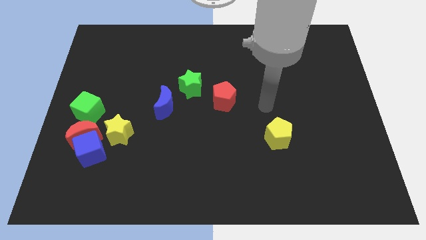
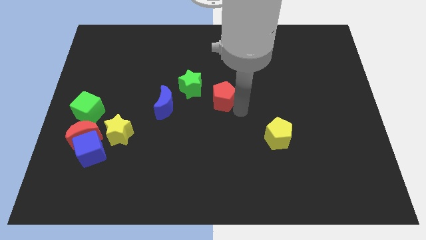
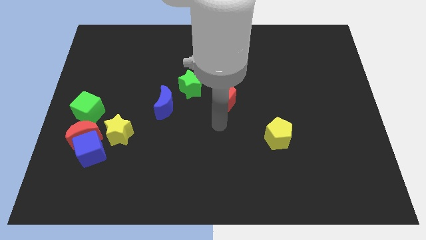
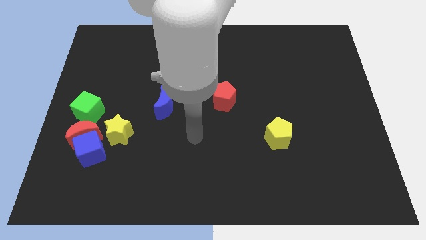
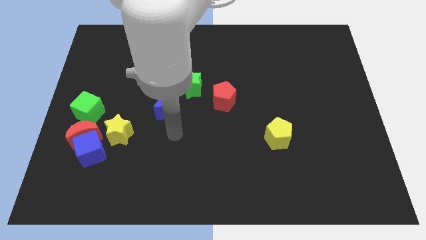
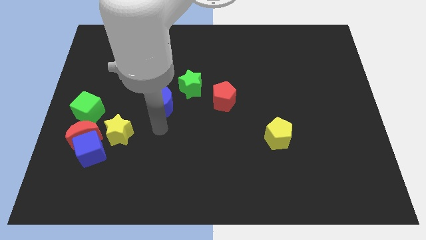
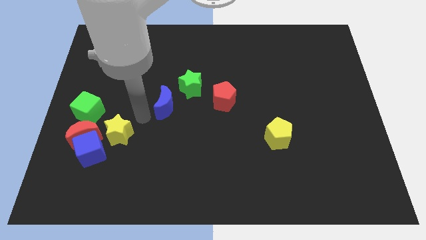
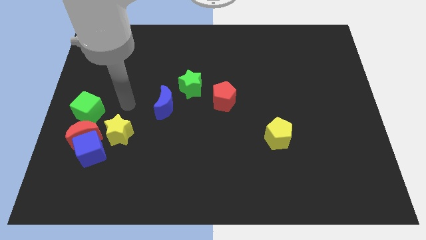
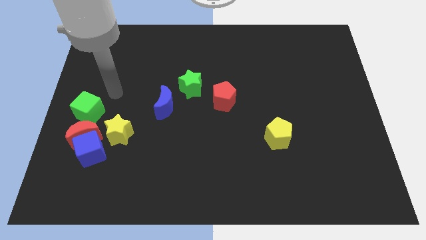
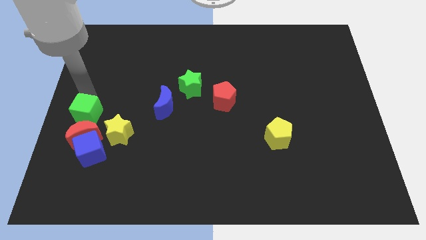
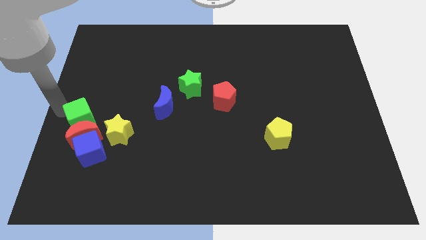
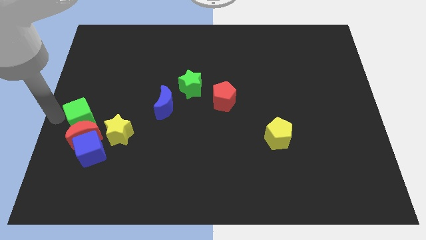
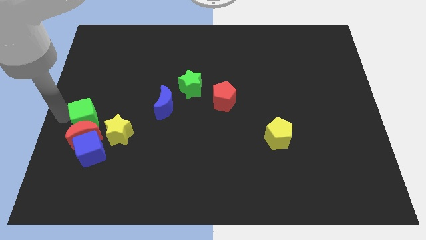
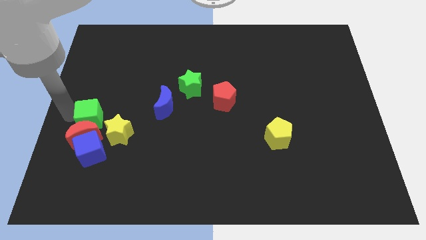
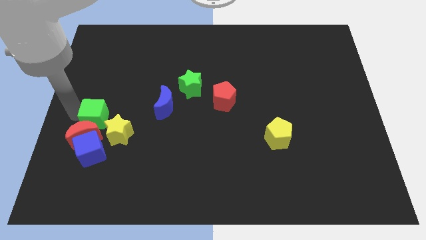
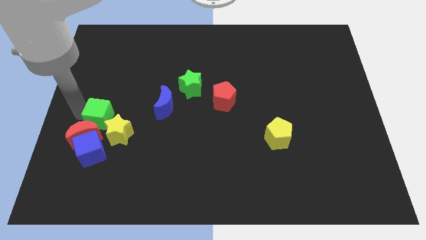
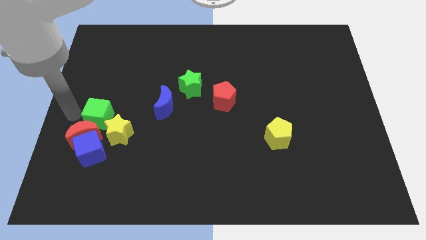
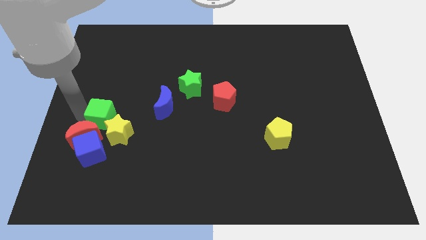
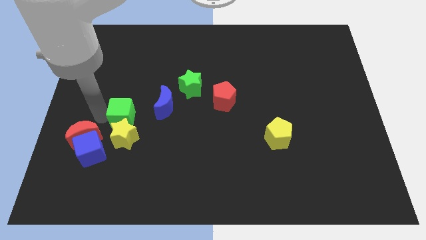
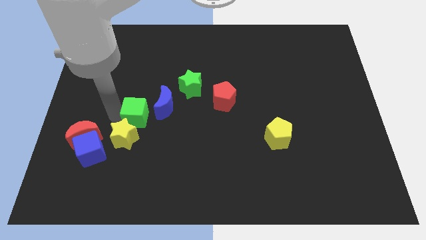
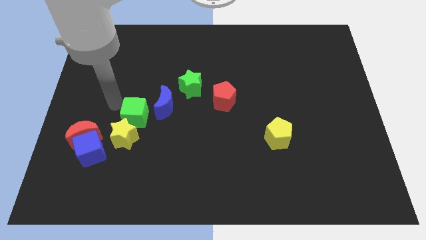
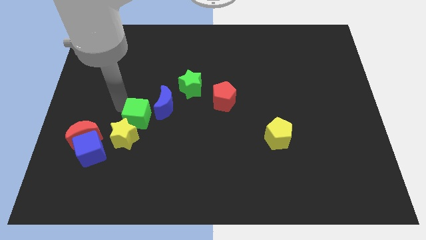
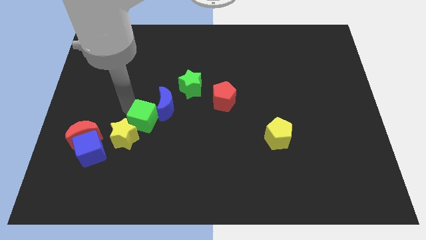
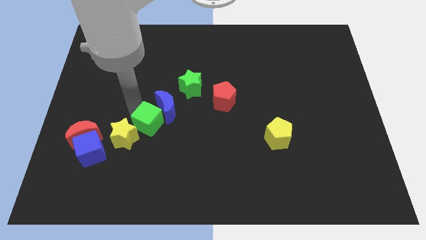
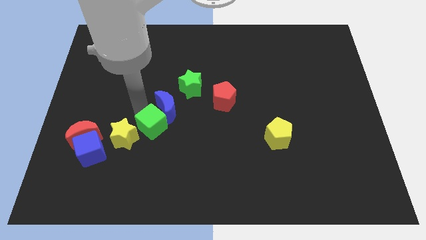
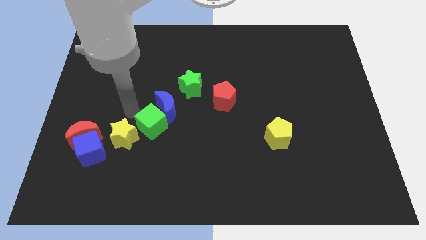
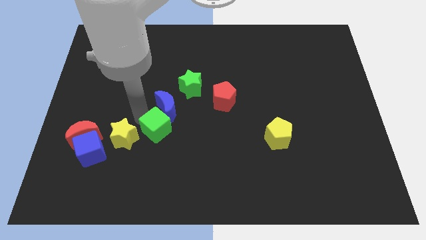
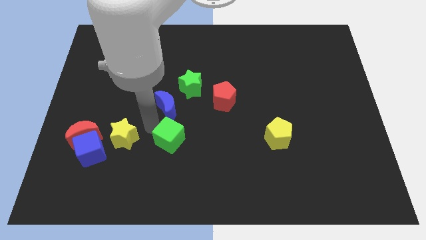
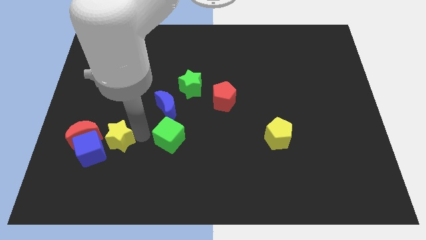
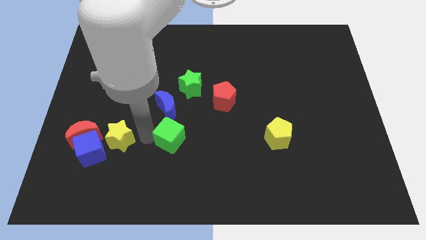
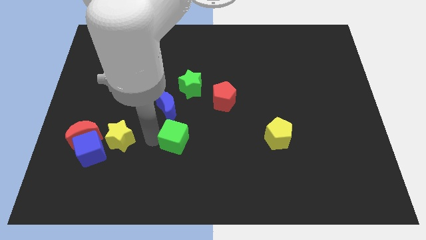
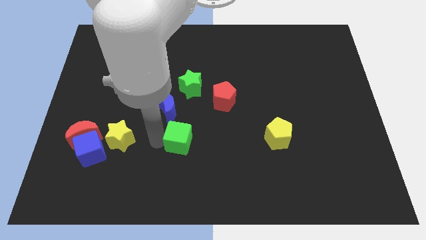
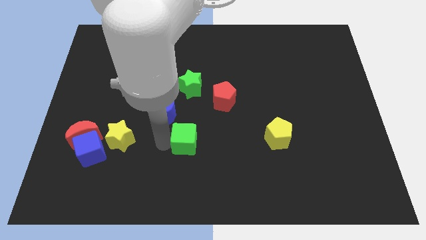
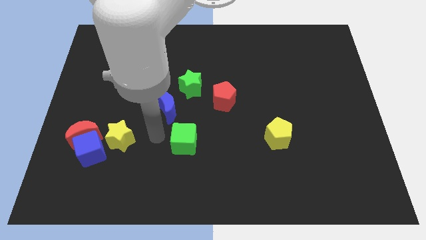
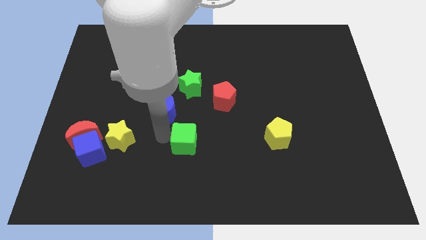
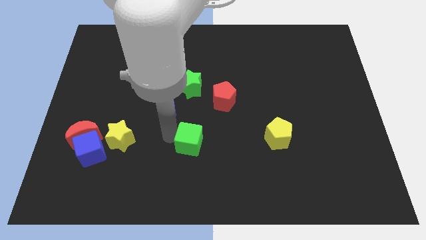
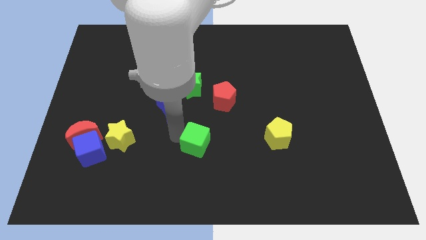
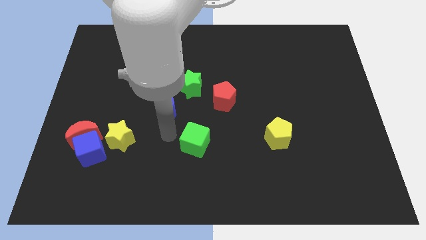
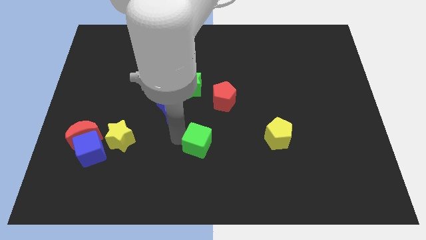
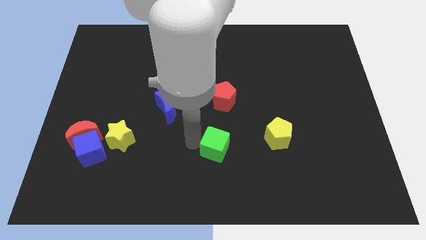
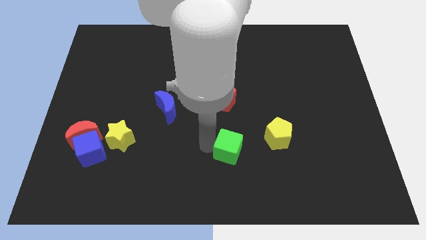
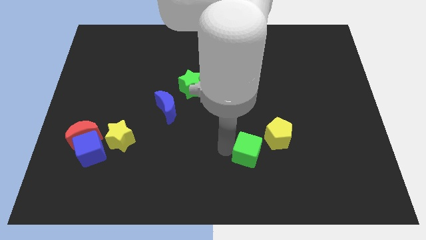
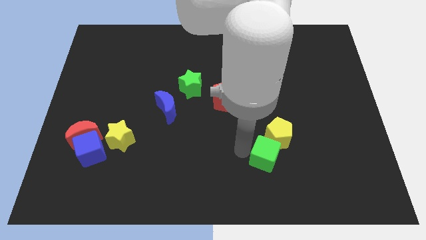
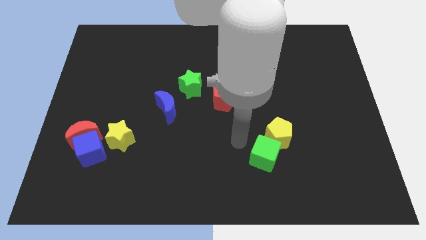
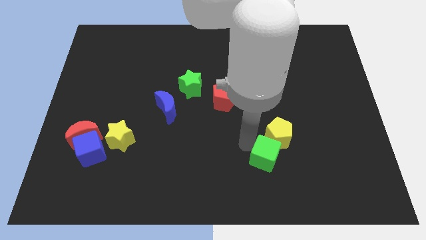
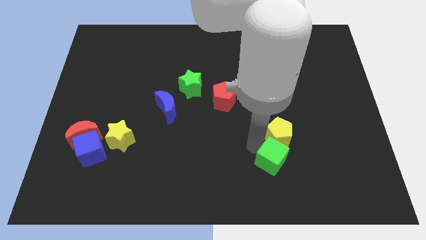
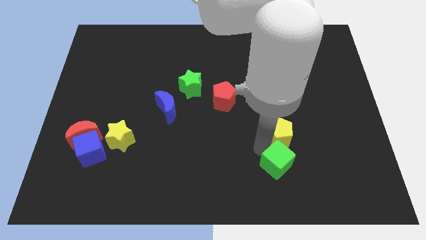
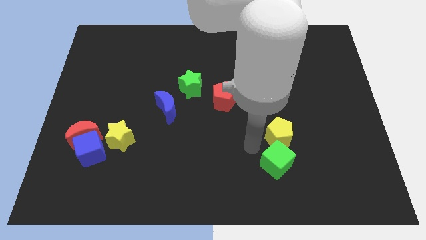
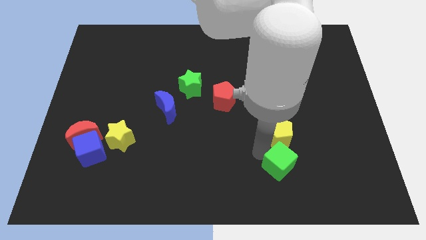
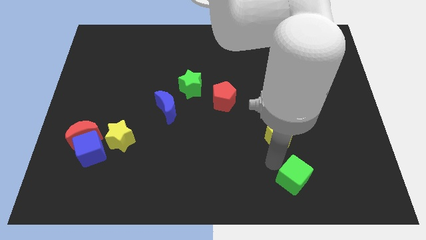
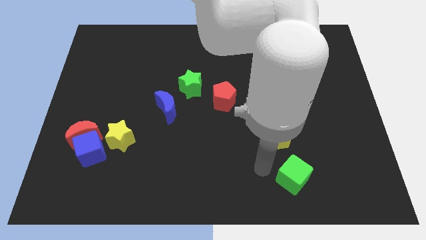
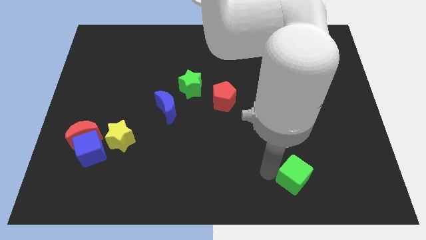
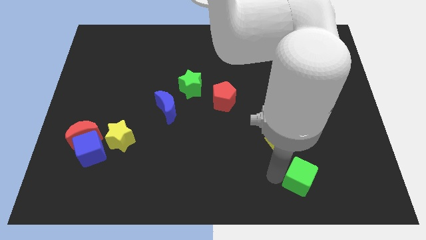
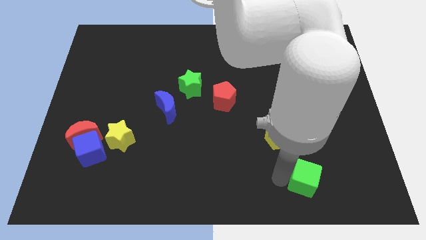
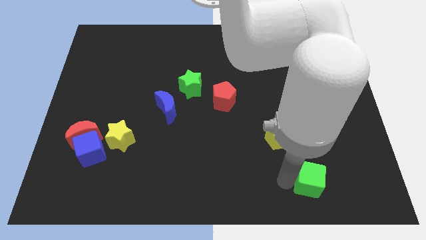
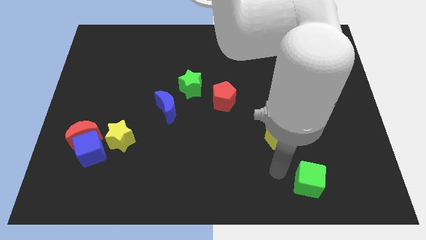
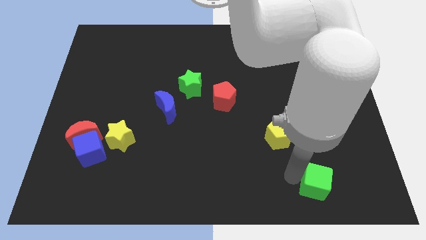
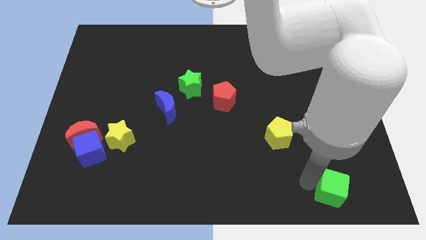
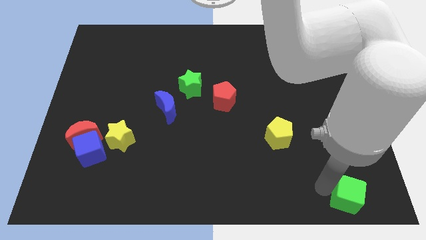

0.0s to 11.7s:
move the green cube to the bottom right of the board

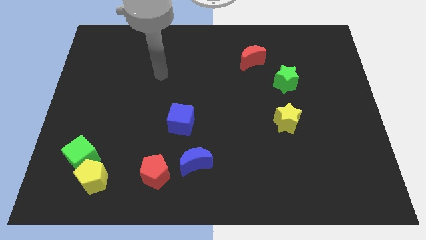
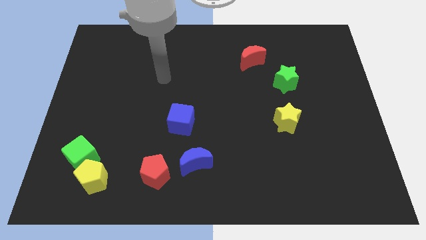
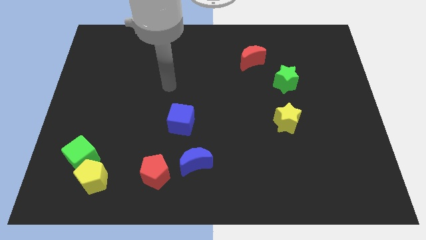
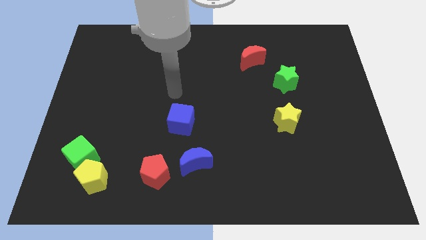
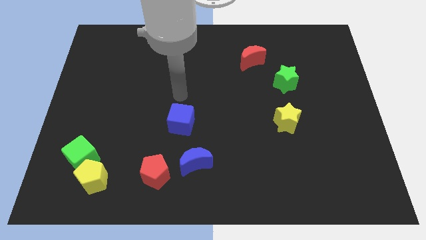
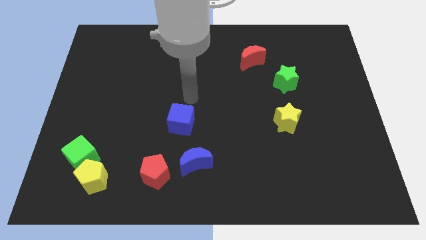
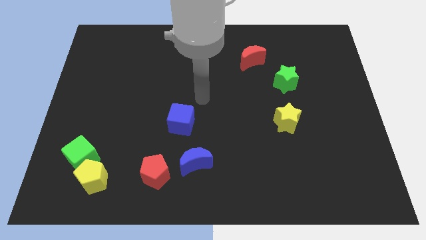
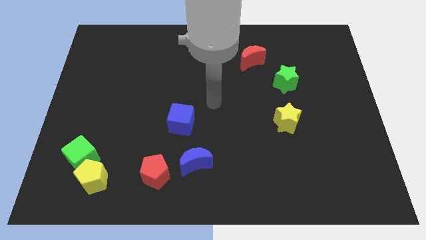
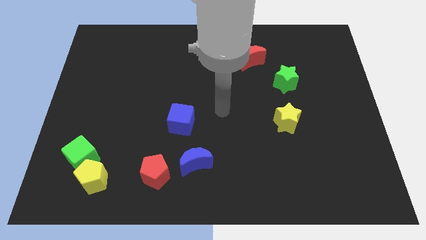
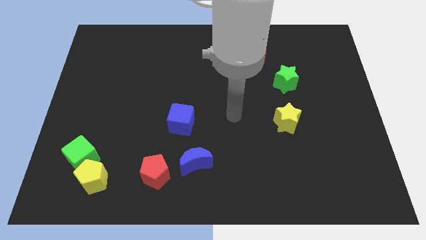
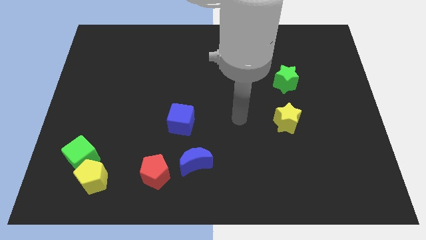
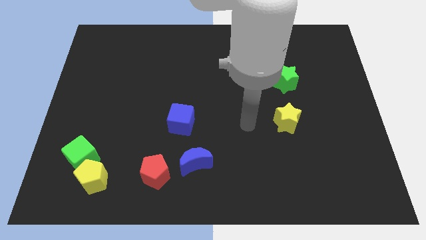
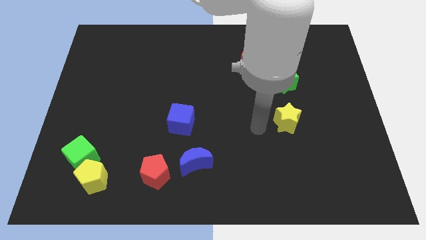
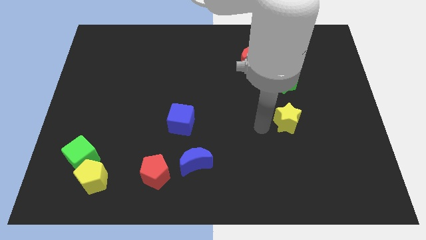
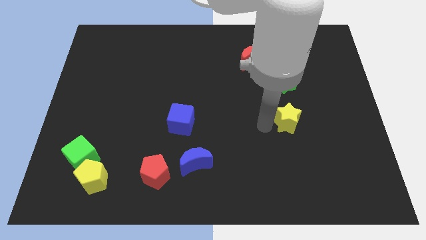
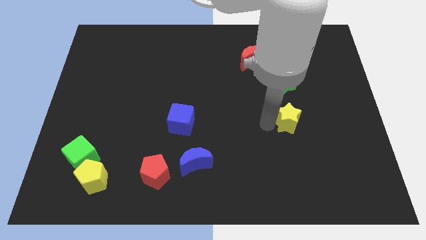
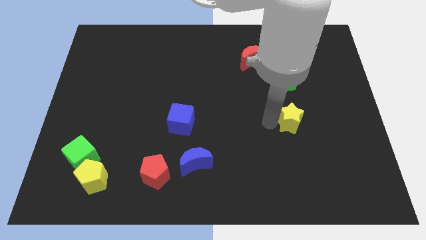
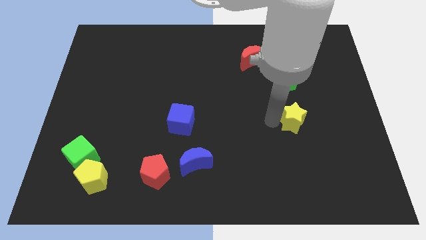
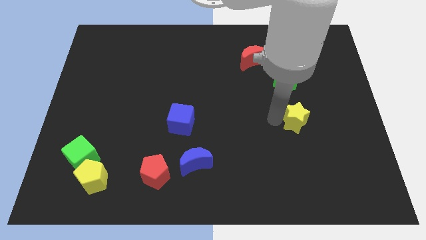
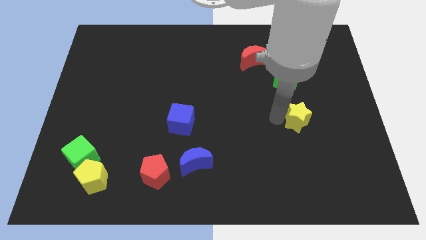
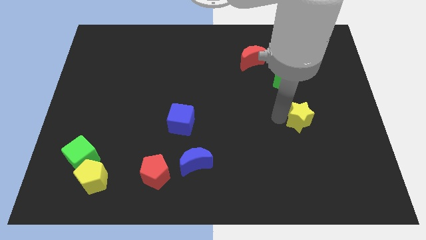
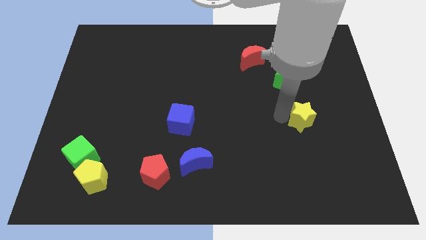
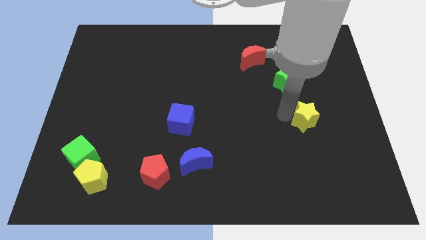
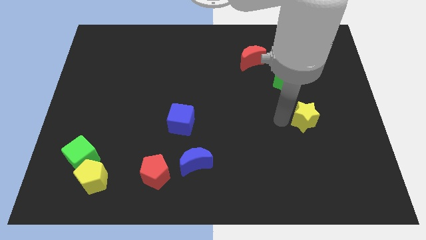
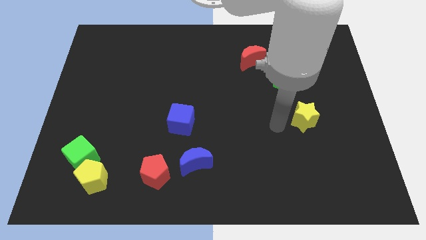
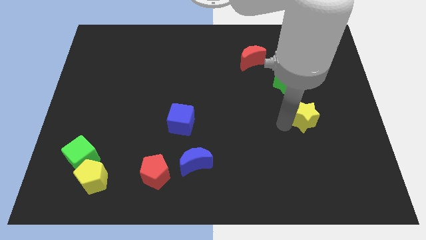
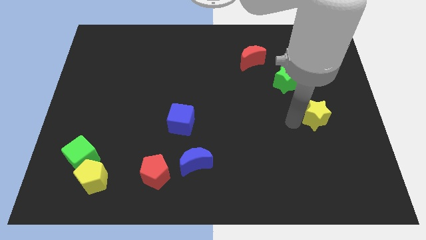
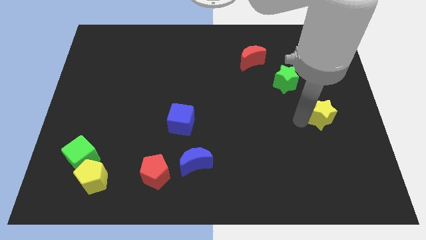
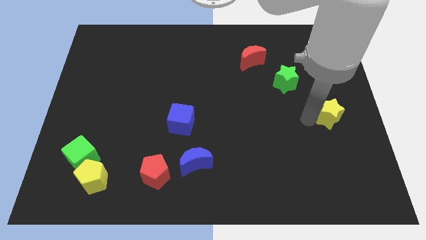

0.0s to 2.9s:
slide the yellow star to the right side
